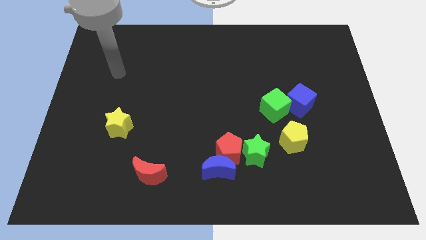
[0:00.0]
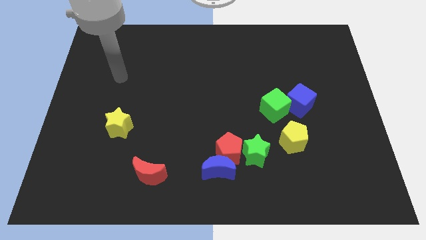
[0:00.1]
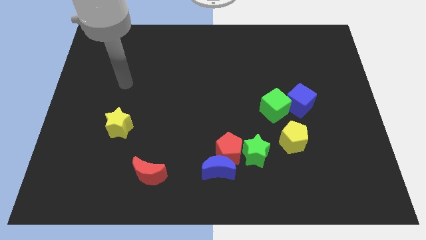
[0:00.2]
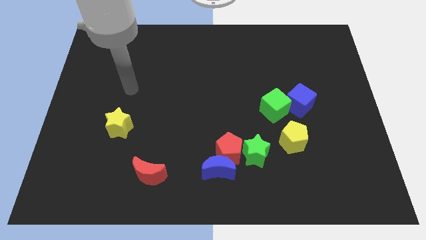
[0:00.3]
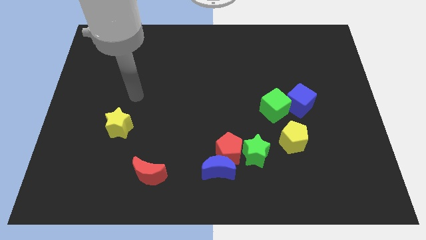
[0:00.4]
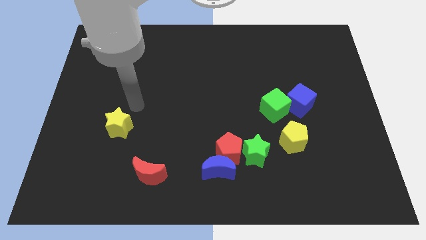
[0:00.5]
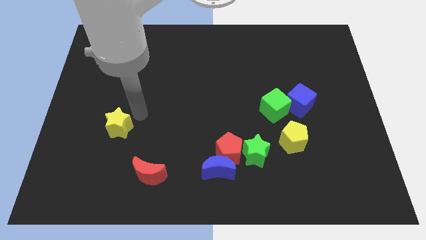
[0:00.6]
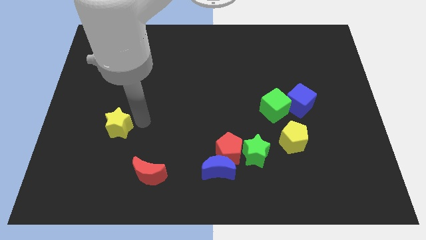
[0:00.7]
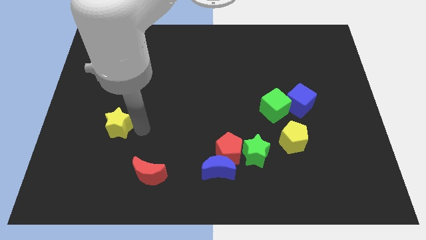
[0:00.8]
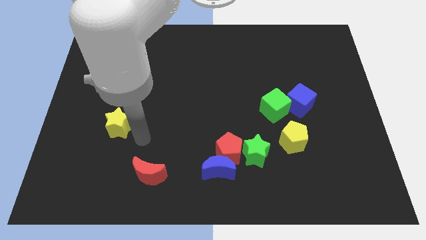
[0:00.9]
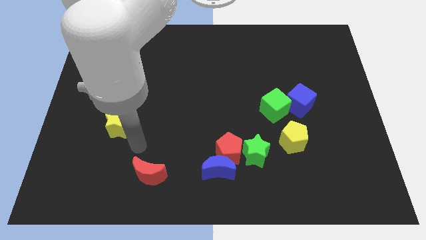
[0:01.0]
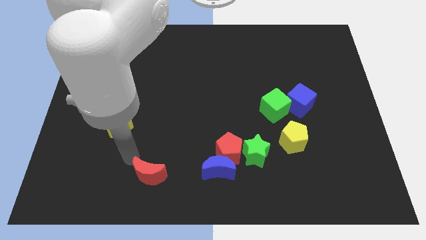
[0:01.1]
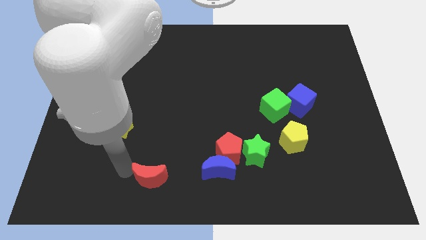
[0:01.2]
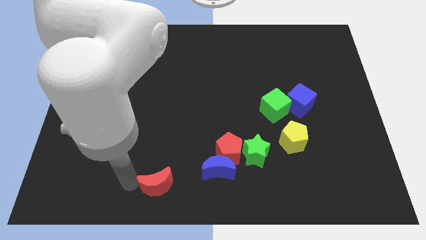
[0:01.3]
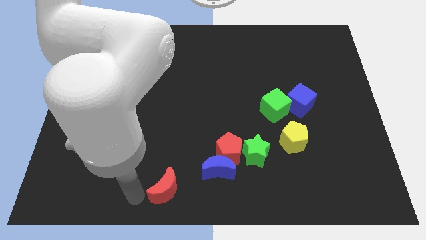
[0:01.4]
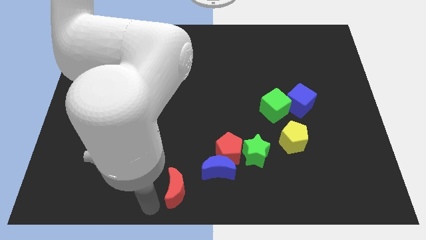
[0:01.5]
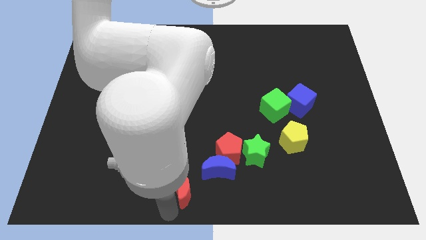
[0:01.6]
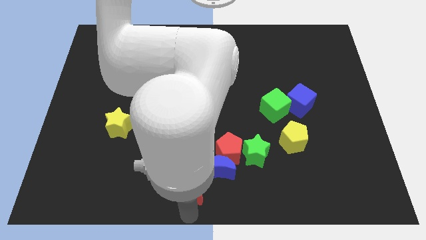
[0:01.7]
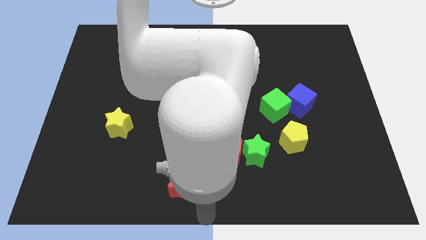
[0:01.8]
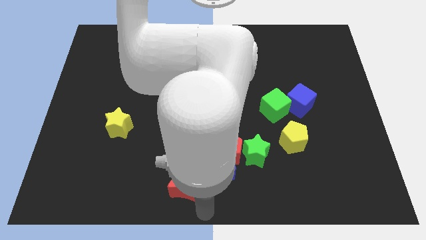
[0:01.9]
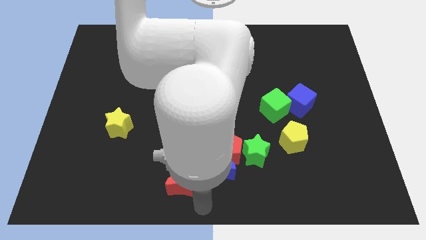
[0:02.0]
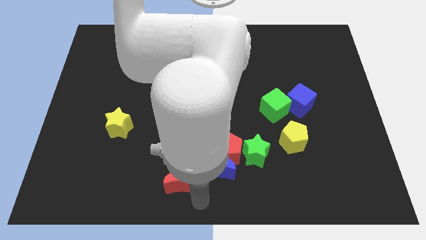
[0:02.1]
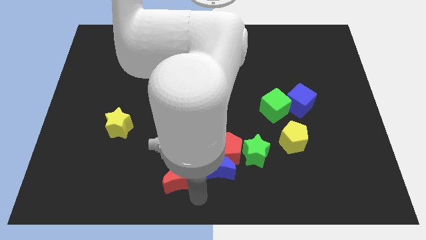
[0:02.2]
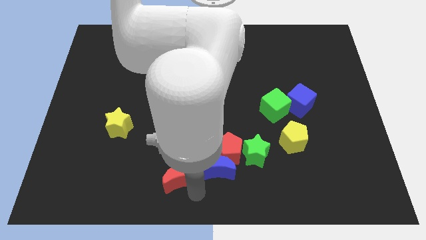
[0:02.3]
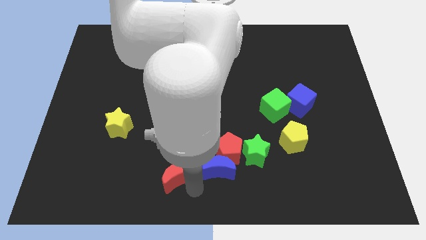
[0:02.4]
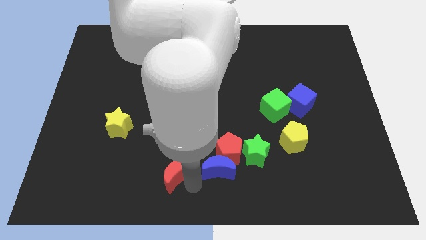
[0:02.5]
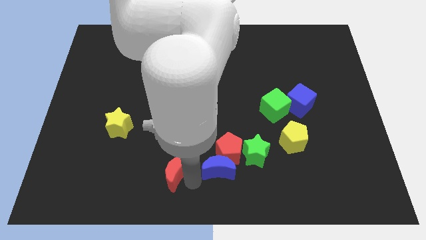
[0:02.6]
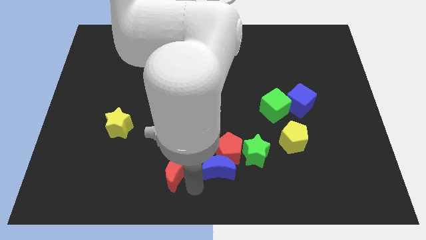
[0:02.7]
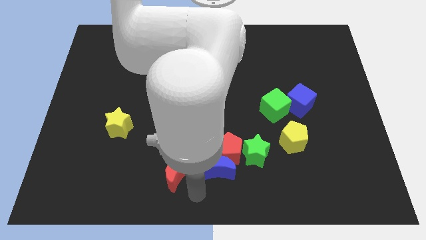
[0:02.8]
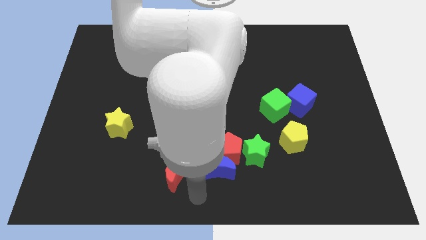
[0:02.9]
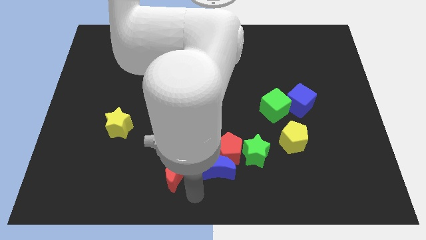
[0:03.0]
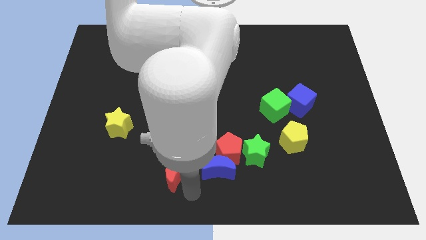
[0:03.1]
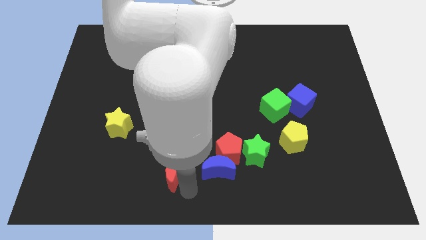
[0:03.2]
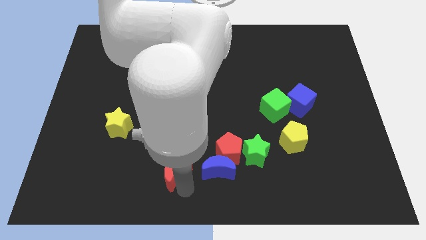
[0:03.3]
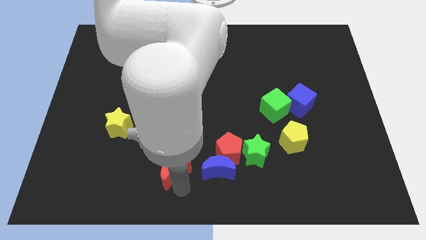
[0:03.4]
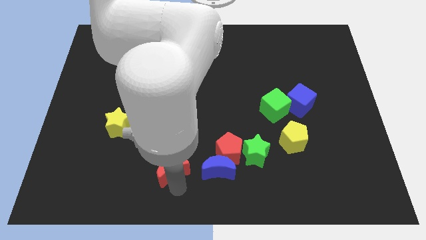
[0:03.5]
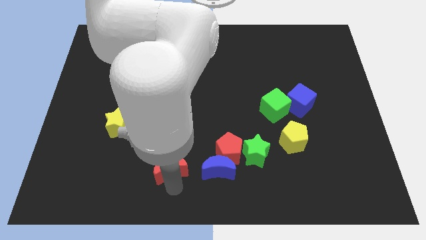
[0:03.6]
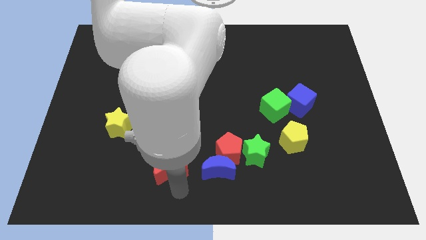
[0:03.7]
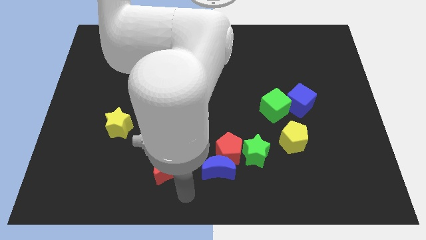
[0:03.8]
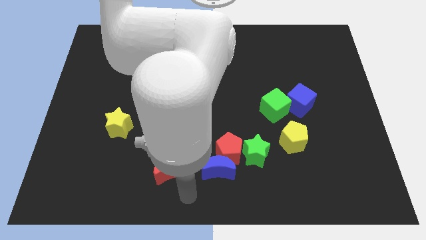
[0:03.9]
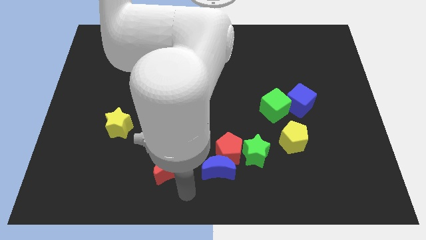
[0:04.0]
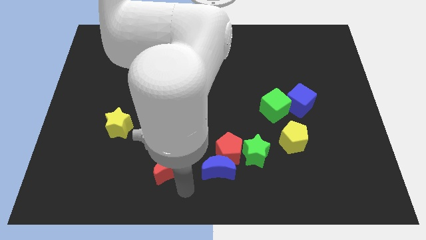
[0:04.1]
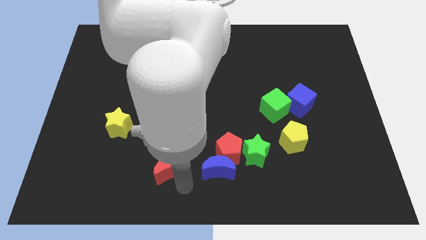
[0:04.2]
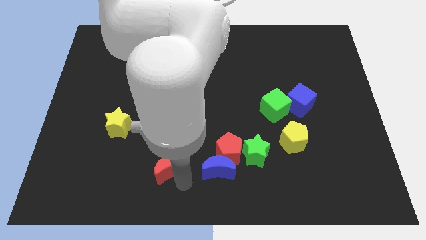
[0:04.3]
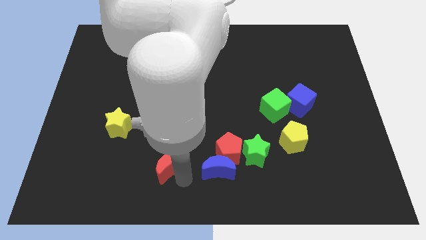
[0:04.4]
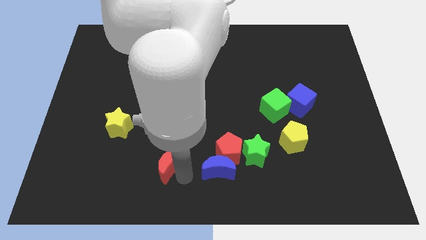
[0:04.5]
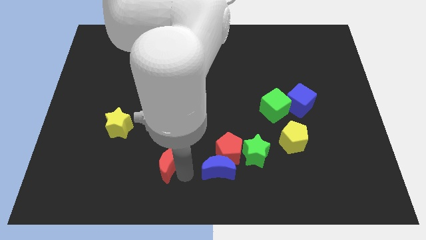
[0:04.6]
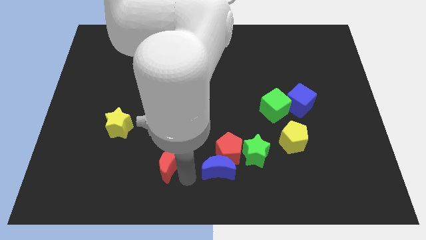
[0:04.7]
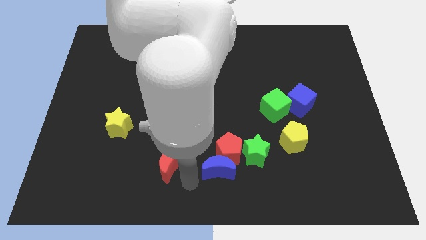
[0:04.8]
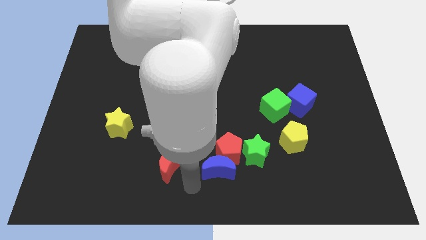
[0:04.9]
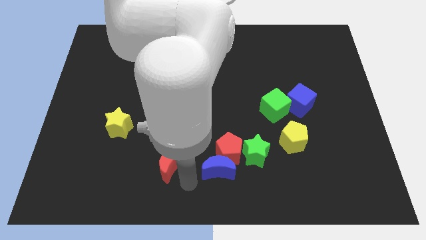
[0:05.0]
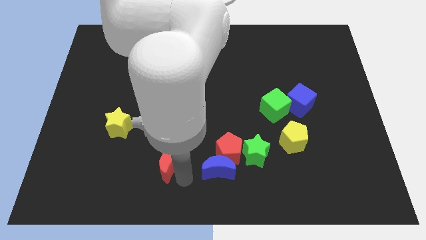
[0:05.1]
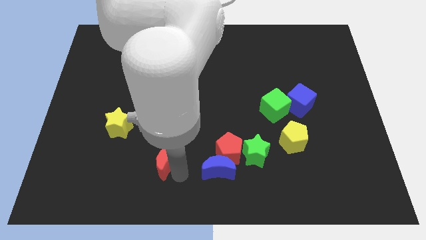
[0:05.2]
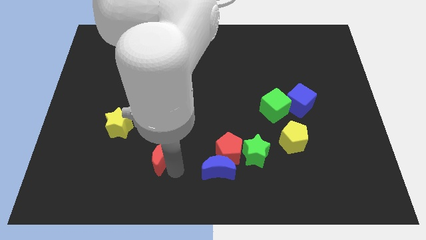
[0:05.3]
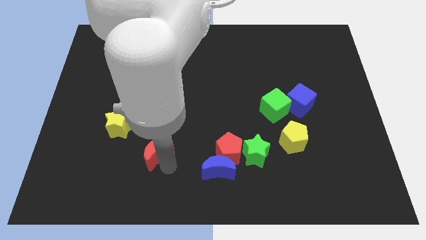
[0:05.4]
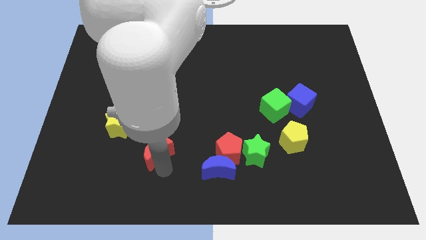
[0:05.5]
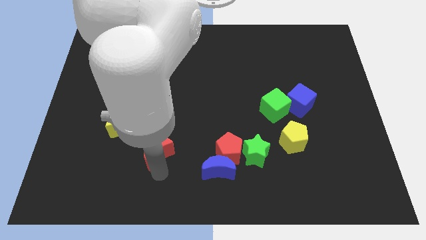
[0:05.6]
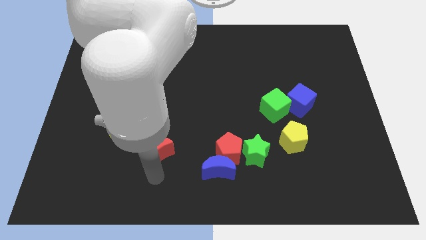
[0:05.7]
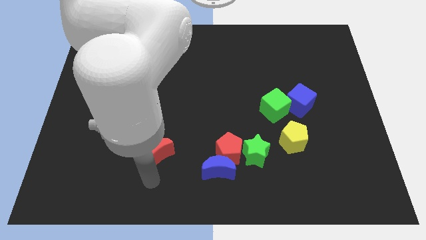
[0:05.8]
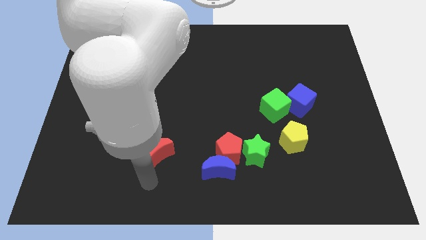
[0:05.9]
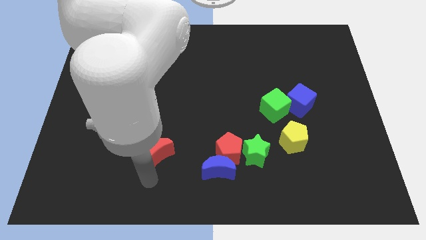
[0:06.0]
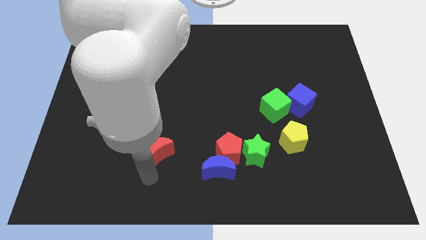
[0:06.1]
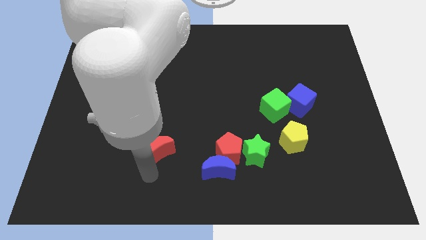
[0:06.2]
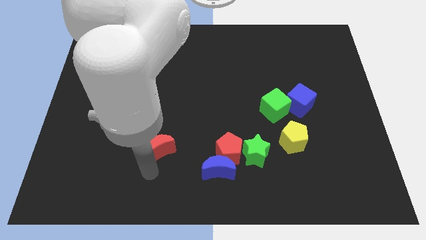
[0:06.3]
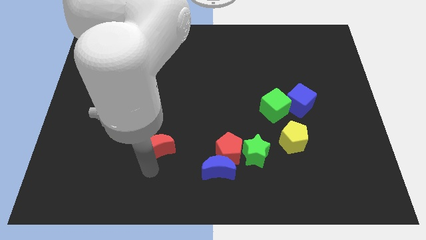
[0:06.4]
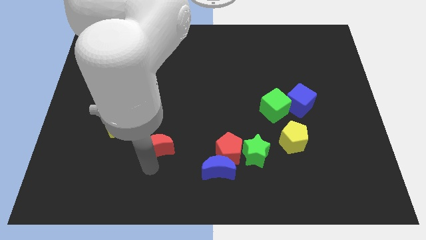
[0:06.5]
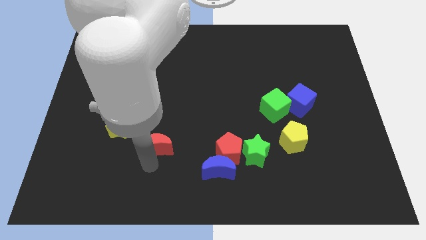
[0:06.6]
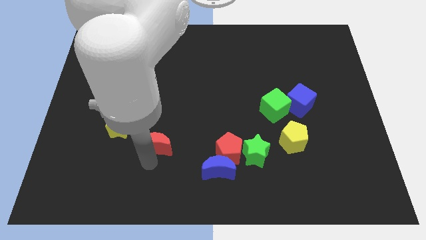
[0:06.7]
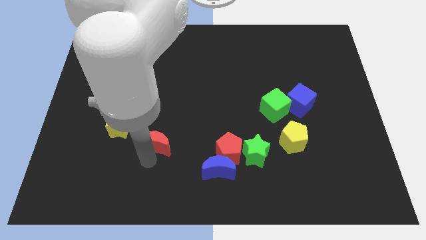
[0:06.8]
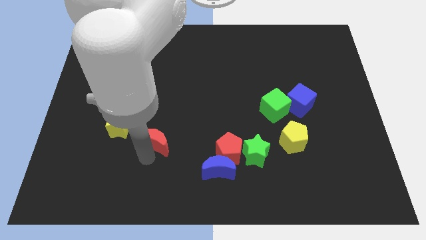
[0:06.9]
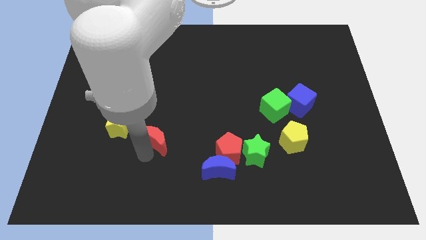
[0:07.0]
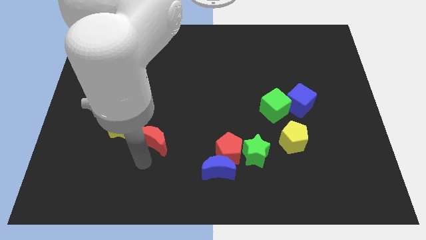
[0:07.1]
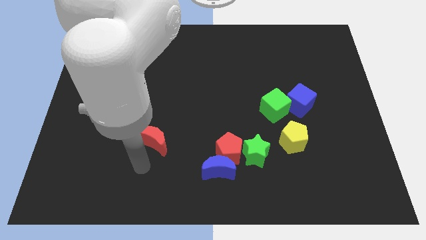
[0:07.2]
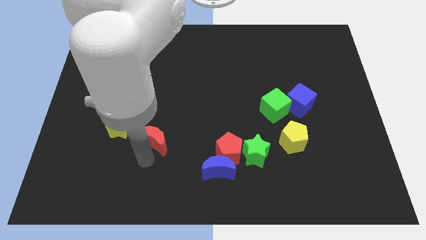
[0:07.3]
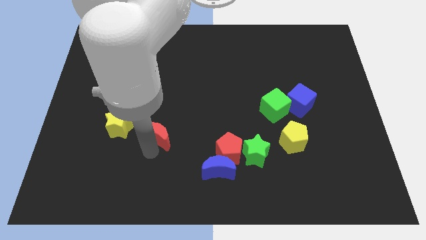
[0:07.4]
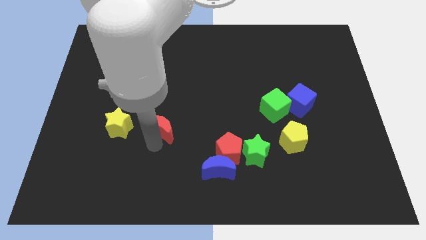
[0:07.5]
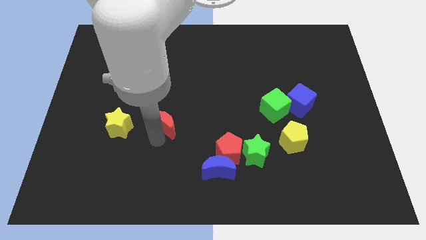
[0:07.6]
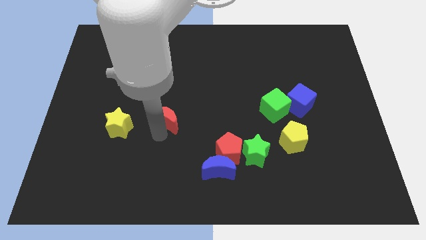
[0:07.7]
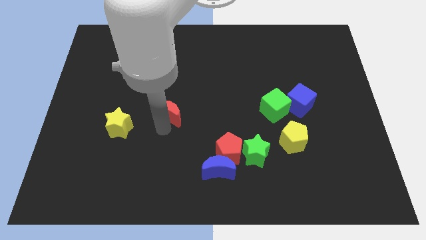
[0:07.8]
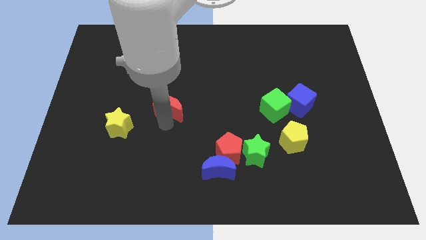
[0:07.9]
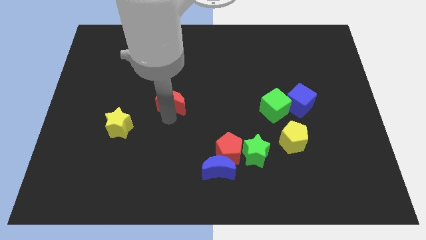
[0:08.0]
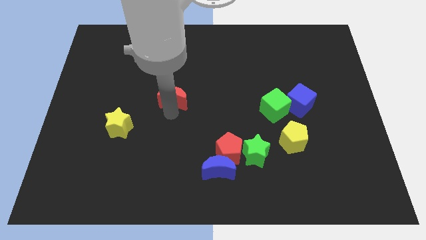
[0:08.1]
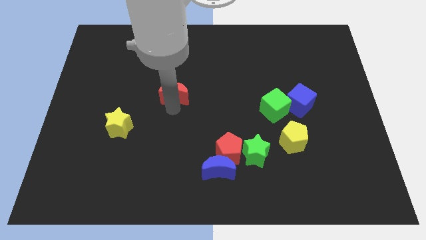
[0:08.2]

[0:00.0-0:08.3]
push the red moon up
